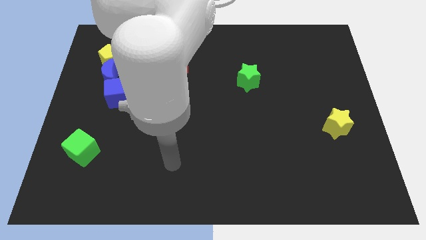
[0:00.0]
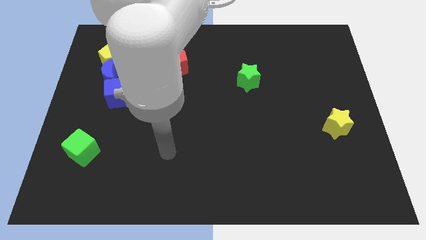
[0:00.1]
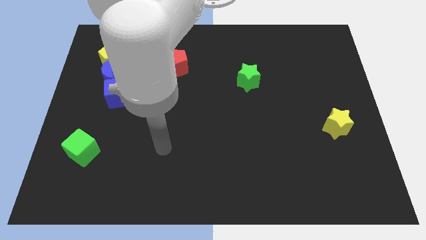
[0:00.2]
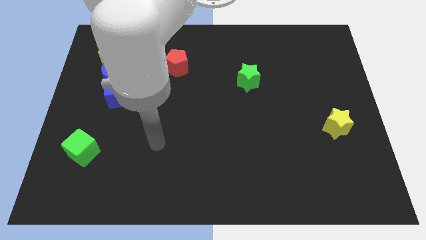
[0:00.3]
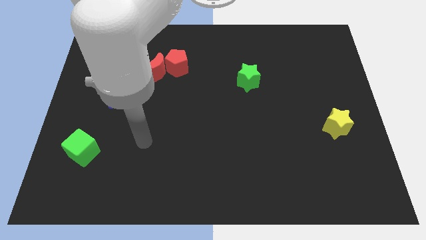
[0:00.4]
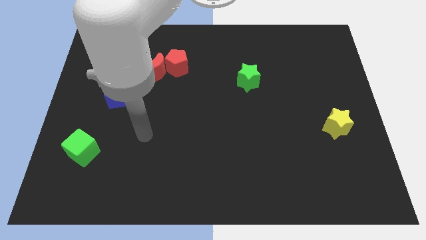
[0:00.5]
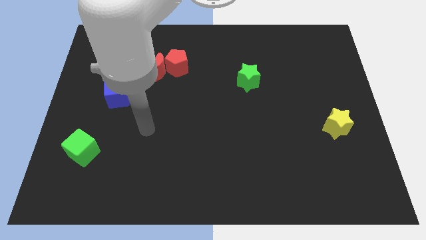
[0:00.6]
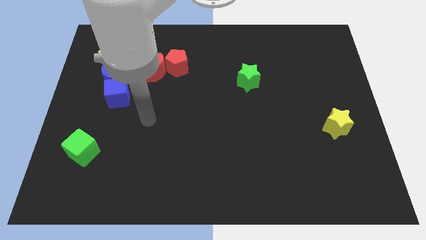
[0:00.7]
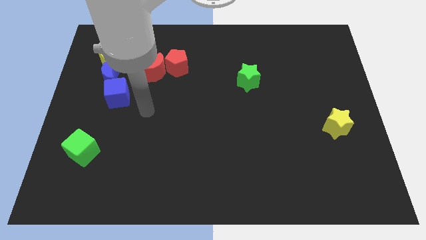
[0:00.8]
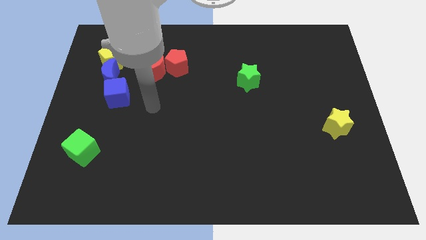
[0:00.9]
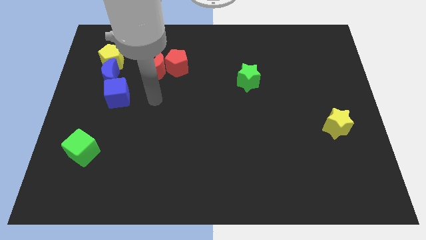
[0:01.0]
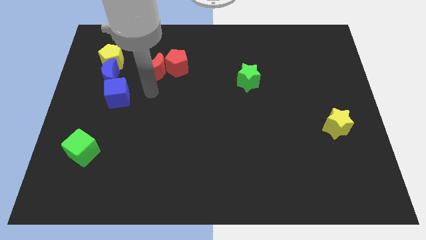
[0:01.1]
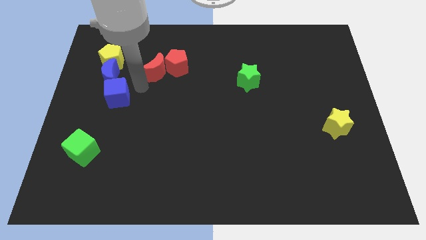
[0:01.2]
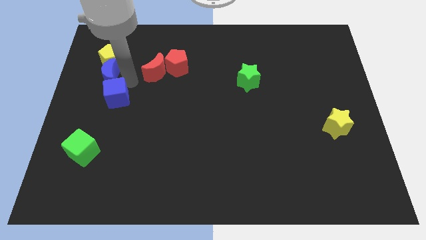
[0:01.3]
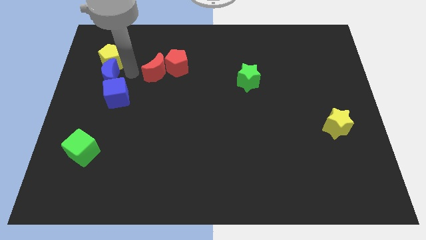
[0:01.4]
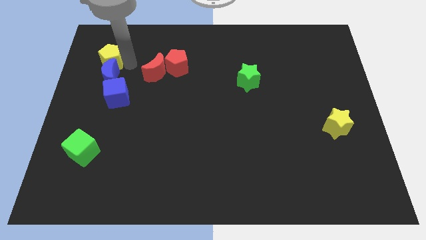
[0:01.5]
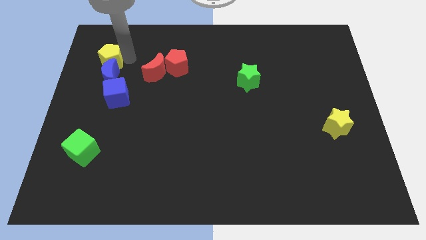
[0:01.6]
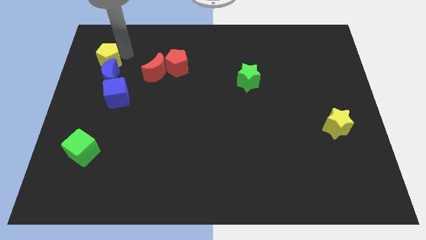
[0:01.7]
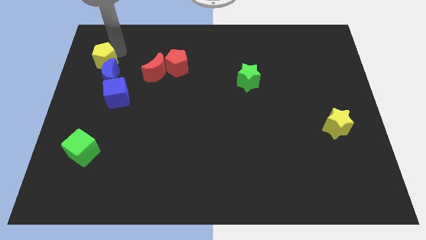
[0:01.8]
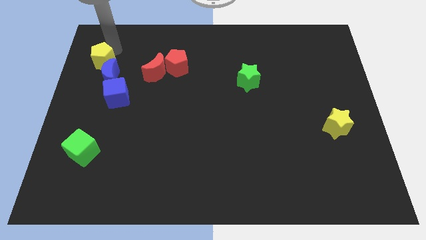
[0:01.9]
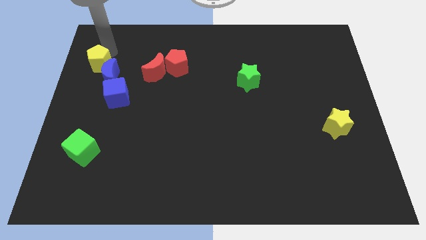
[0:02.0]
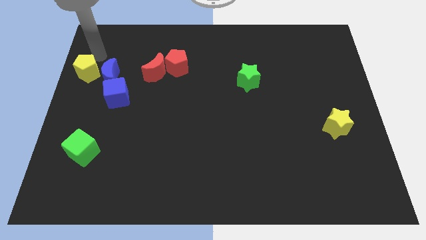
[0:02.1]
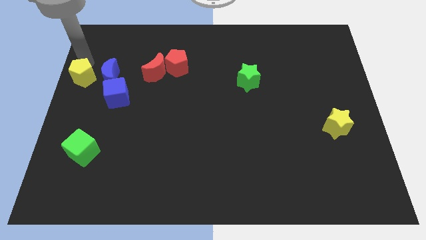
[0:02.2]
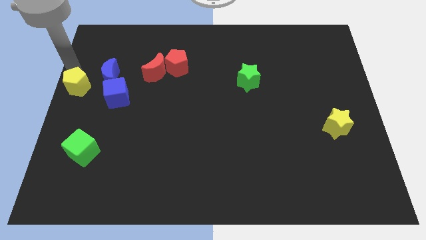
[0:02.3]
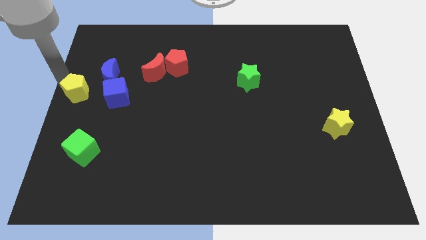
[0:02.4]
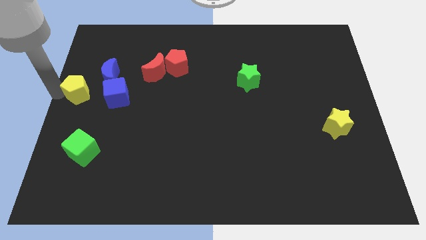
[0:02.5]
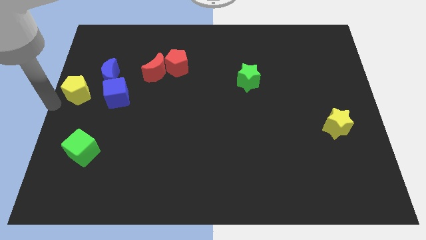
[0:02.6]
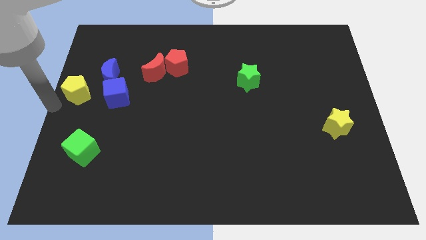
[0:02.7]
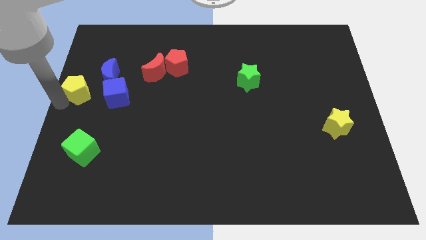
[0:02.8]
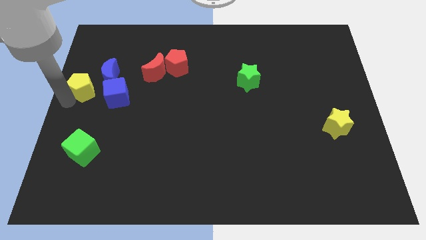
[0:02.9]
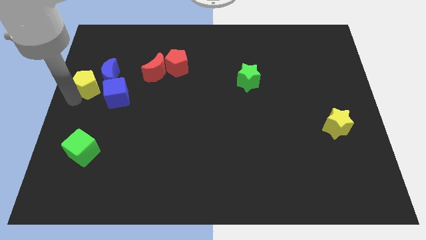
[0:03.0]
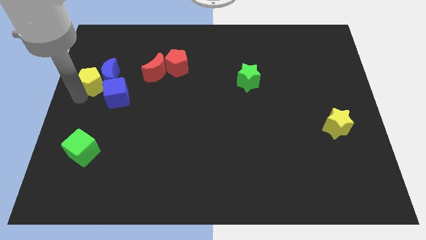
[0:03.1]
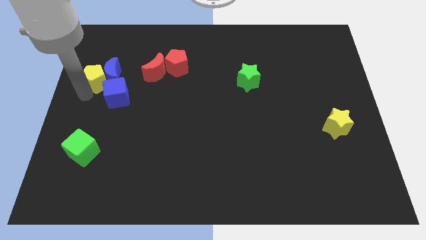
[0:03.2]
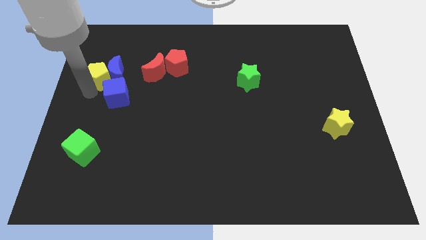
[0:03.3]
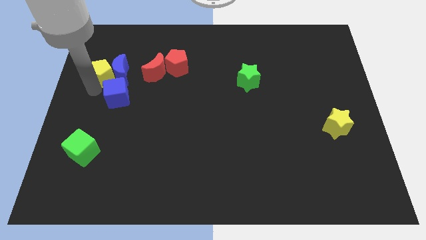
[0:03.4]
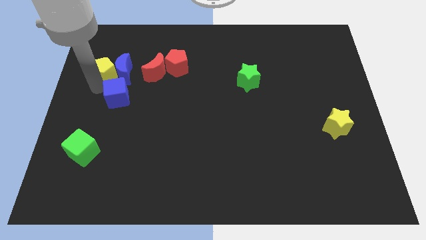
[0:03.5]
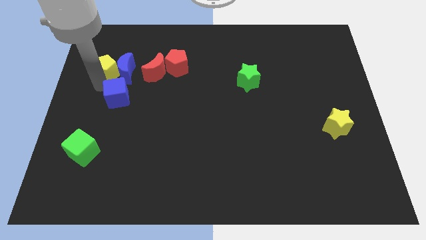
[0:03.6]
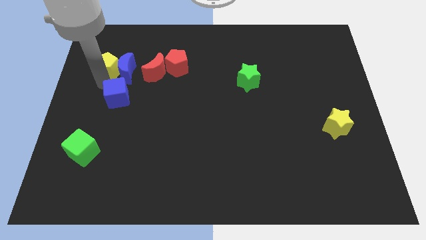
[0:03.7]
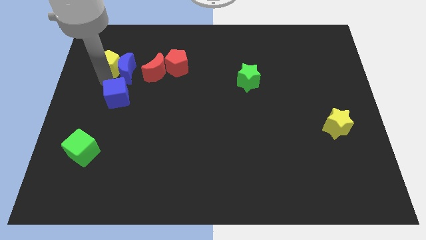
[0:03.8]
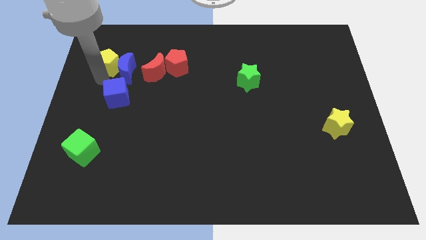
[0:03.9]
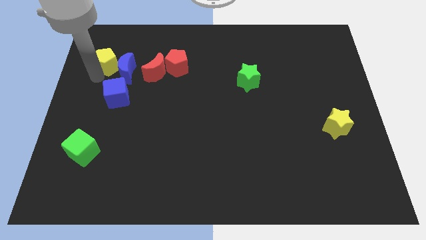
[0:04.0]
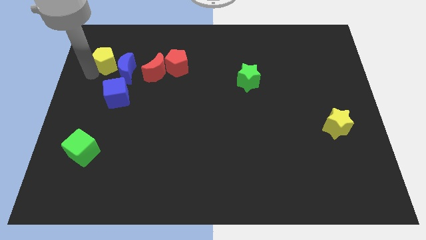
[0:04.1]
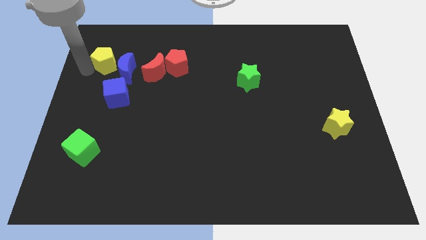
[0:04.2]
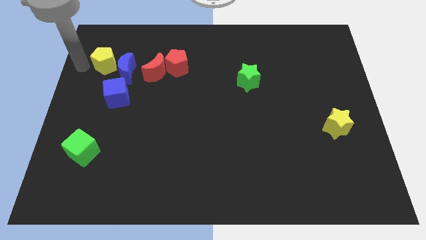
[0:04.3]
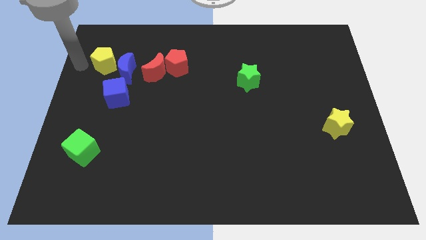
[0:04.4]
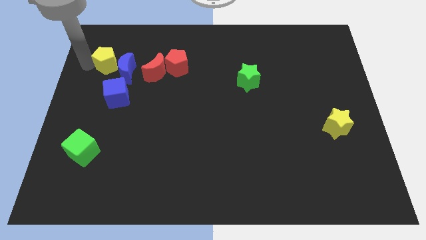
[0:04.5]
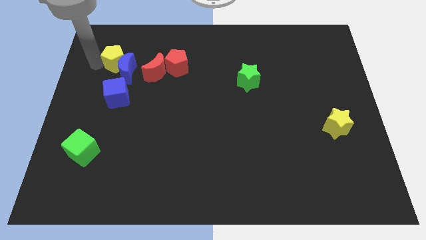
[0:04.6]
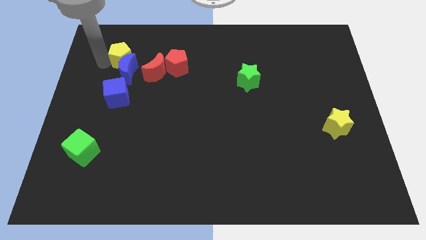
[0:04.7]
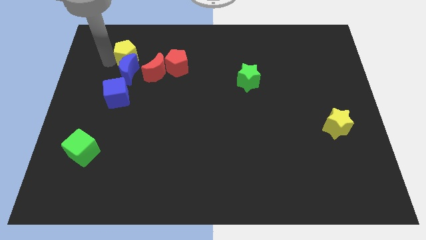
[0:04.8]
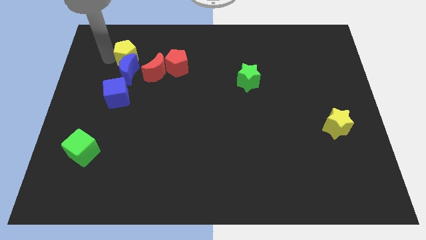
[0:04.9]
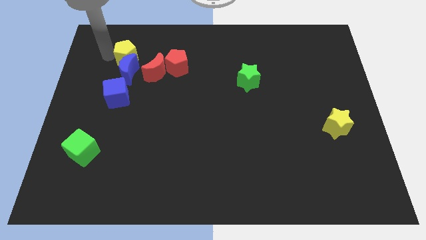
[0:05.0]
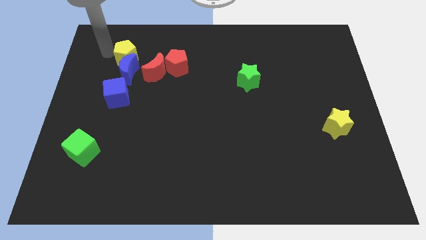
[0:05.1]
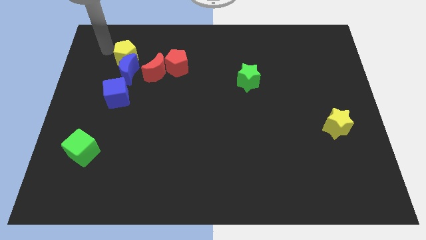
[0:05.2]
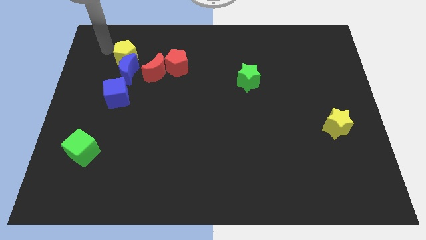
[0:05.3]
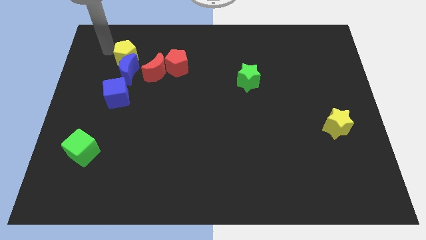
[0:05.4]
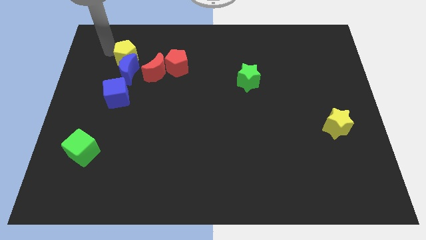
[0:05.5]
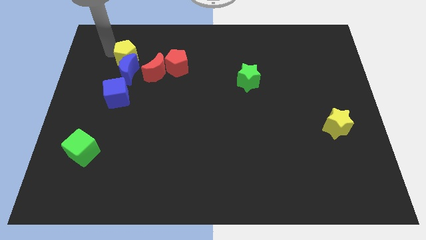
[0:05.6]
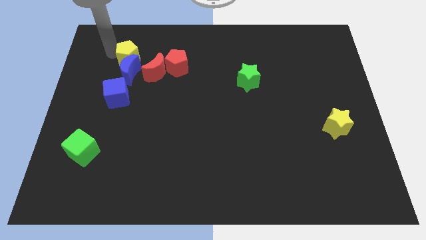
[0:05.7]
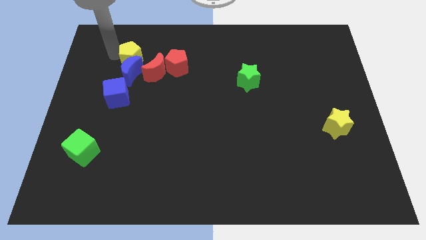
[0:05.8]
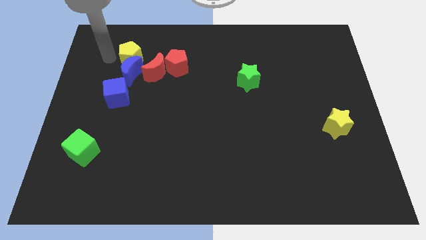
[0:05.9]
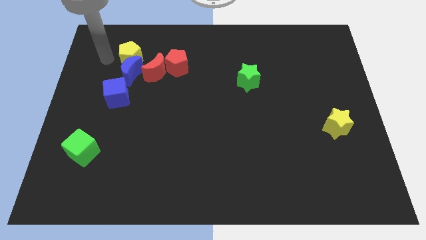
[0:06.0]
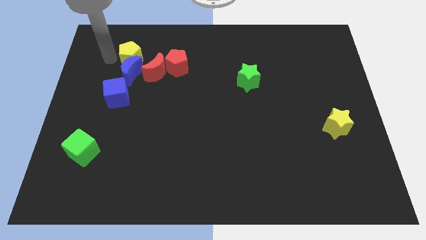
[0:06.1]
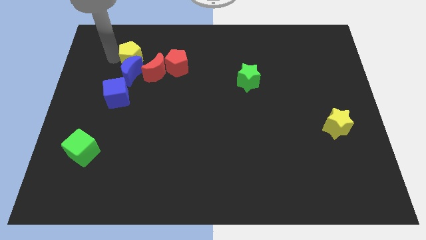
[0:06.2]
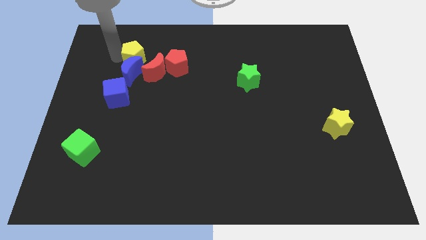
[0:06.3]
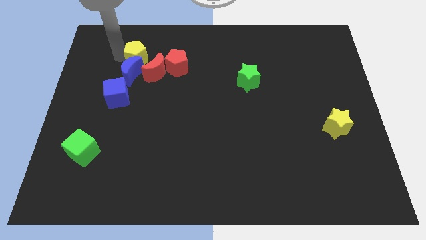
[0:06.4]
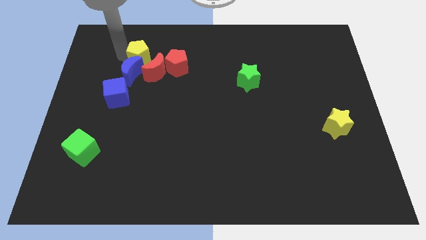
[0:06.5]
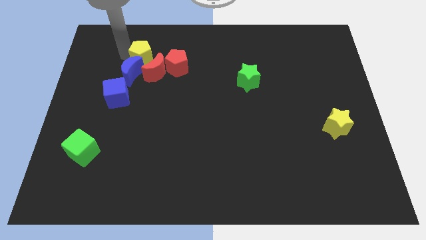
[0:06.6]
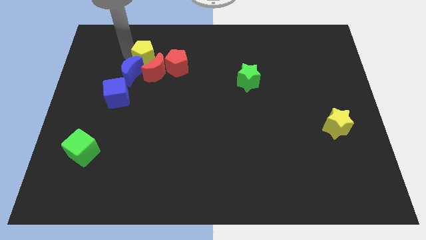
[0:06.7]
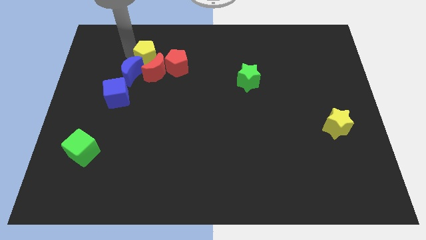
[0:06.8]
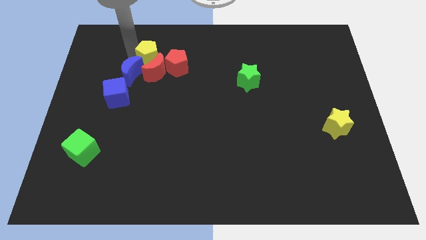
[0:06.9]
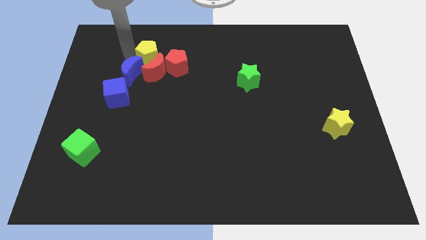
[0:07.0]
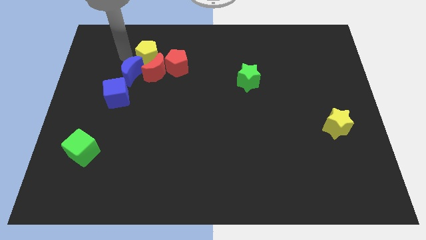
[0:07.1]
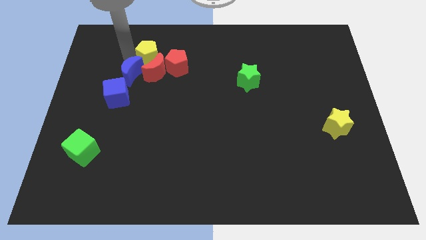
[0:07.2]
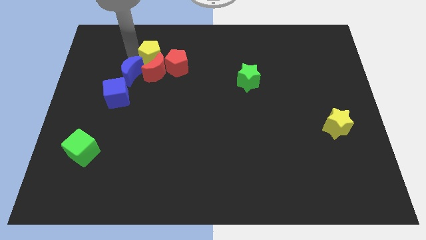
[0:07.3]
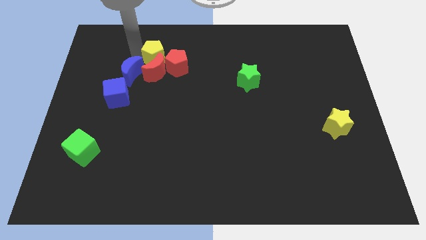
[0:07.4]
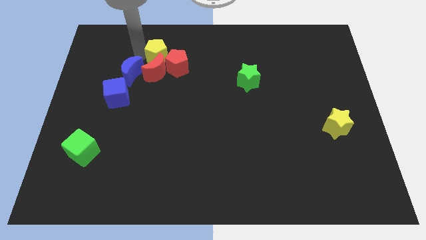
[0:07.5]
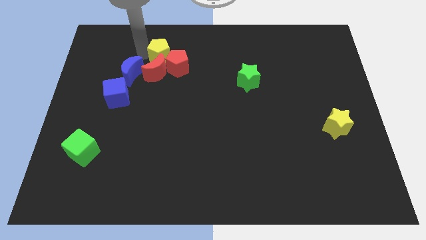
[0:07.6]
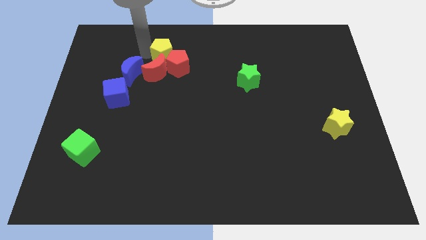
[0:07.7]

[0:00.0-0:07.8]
move the yellow pentagon close to the red pentagon
